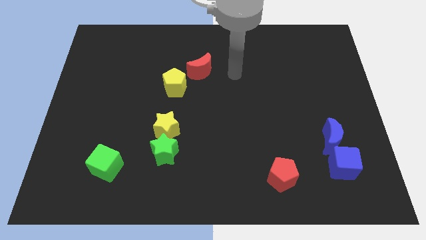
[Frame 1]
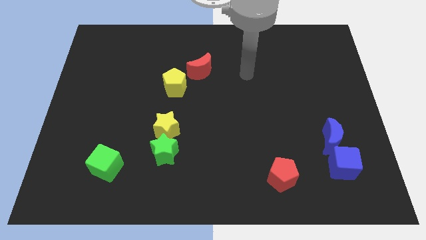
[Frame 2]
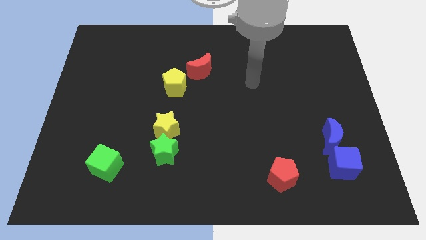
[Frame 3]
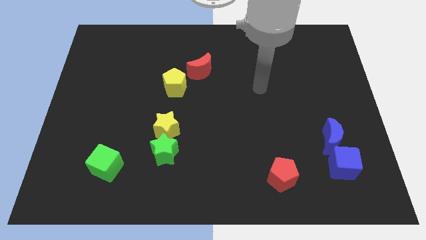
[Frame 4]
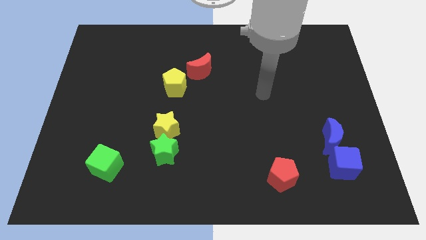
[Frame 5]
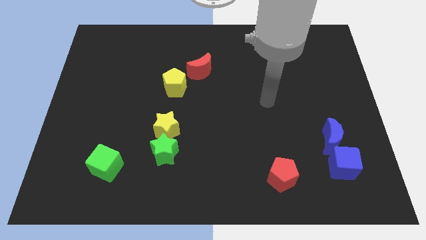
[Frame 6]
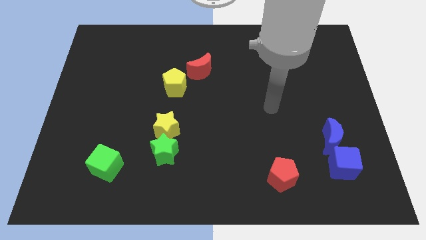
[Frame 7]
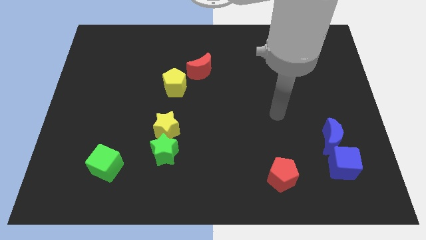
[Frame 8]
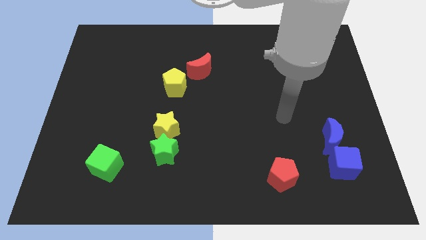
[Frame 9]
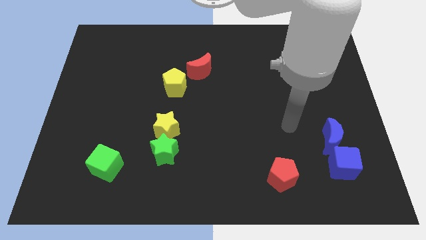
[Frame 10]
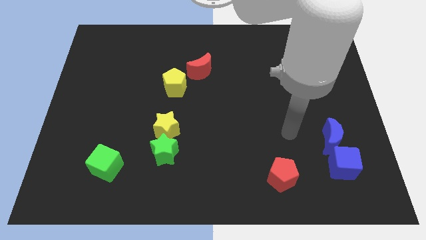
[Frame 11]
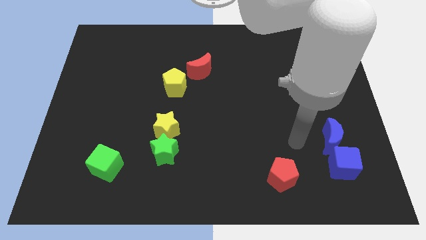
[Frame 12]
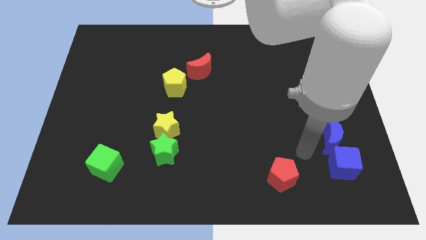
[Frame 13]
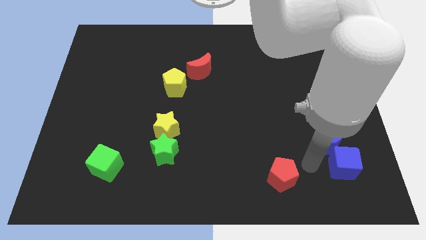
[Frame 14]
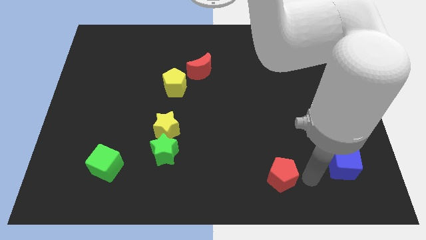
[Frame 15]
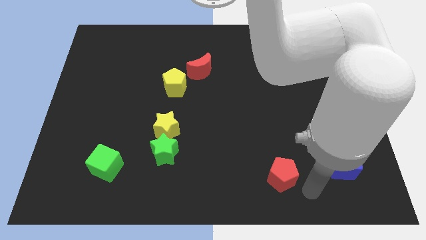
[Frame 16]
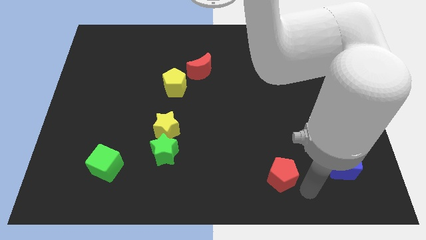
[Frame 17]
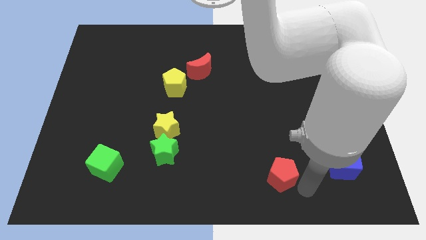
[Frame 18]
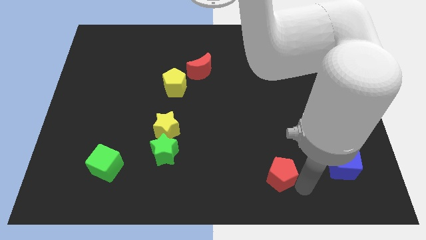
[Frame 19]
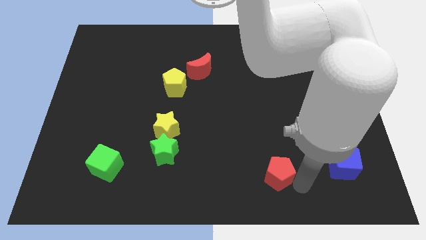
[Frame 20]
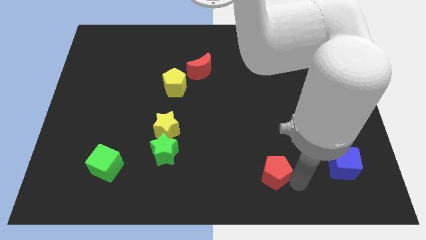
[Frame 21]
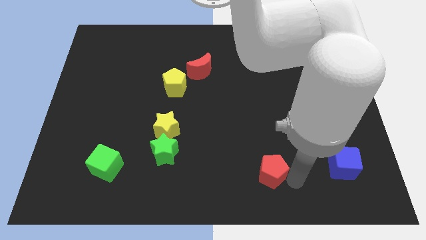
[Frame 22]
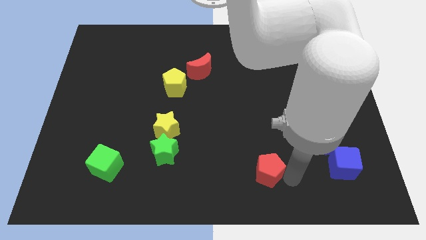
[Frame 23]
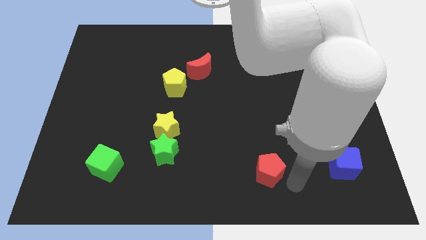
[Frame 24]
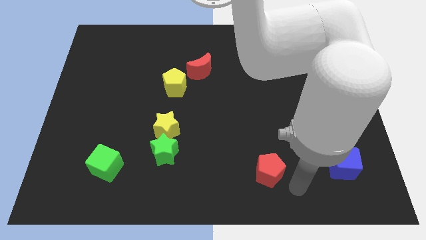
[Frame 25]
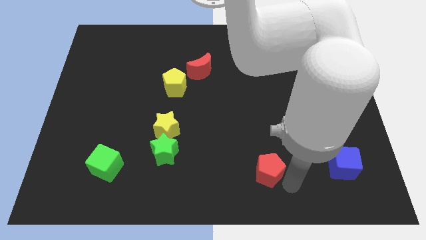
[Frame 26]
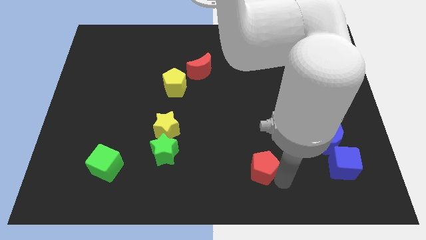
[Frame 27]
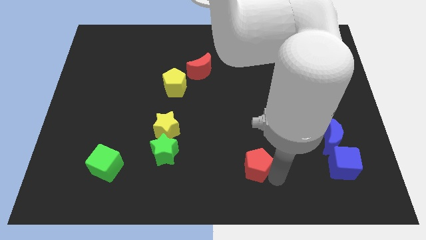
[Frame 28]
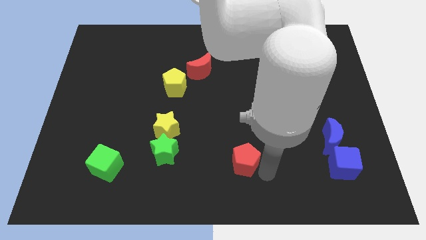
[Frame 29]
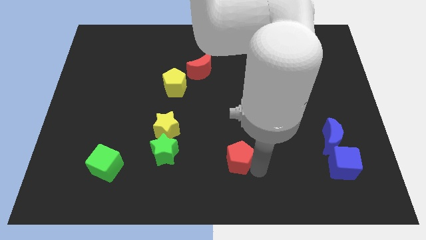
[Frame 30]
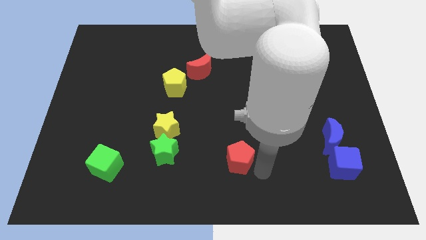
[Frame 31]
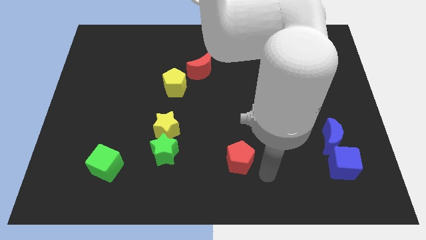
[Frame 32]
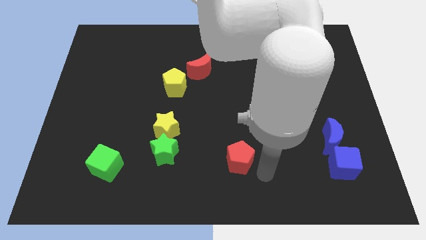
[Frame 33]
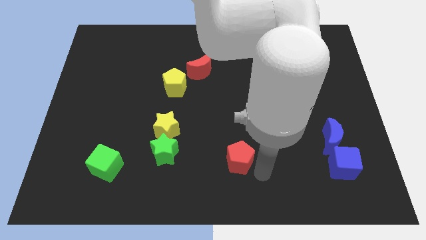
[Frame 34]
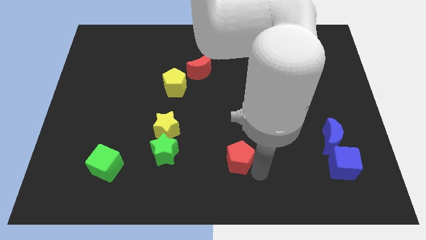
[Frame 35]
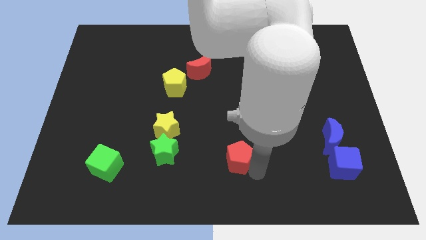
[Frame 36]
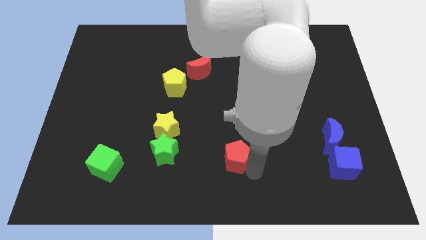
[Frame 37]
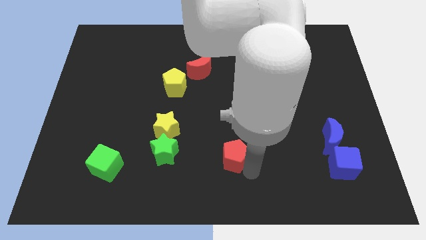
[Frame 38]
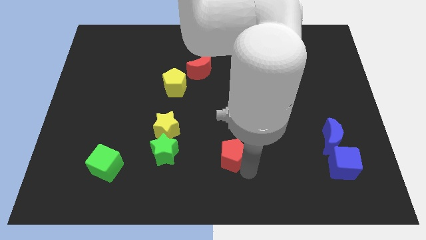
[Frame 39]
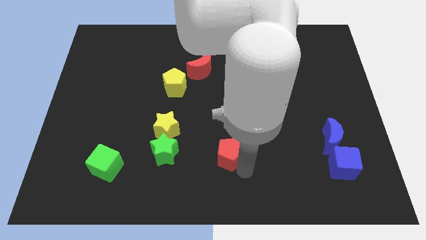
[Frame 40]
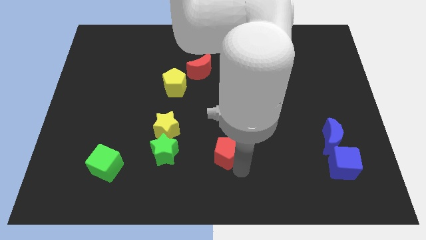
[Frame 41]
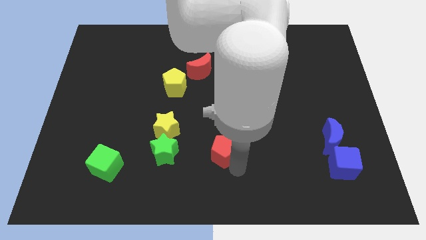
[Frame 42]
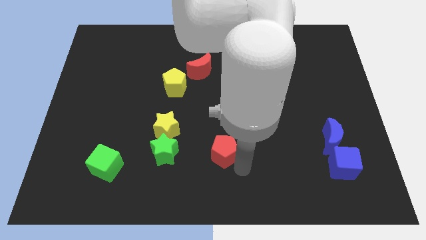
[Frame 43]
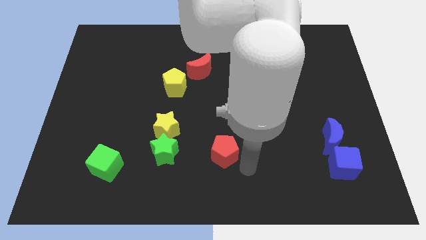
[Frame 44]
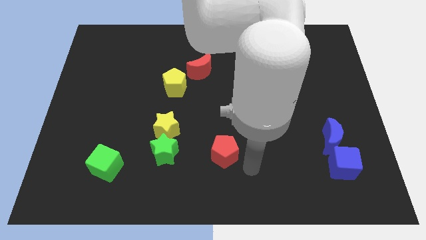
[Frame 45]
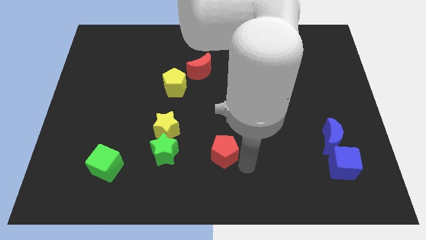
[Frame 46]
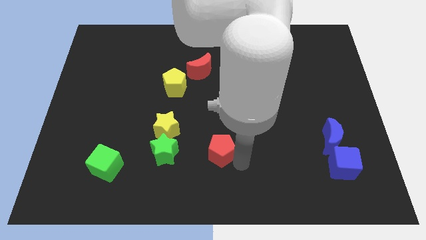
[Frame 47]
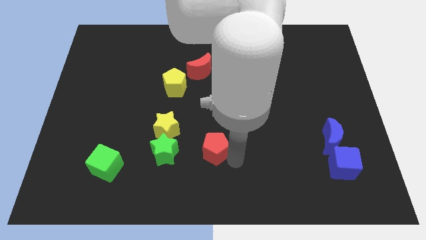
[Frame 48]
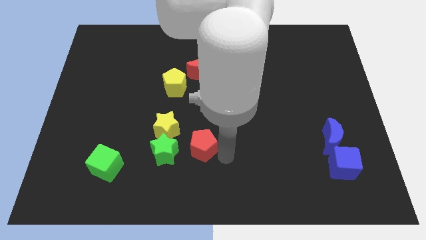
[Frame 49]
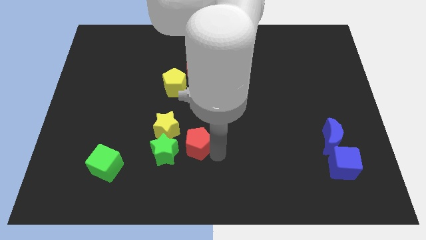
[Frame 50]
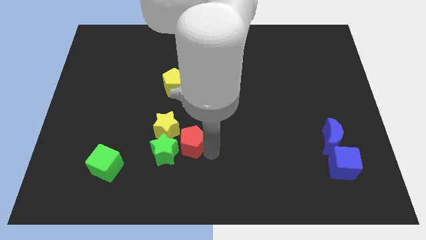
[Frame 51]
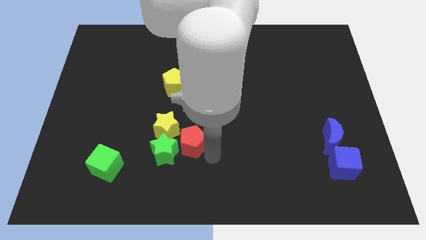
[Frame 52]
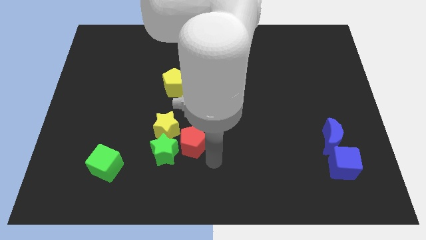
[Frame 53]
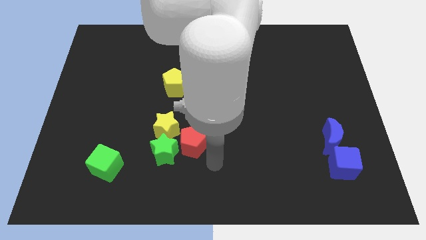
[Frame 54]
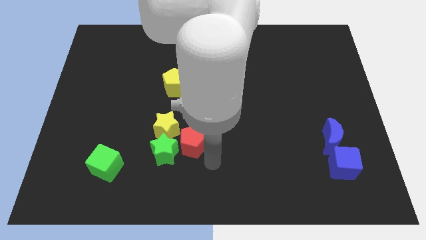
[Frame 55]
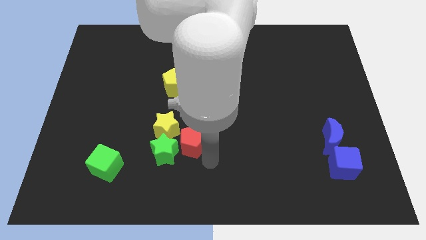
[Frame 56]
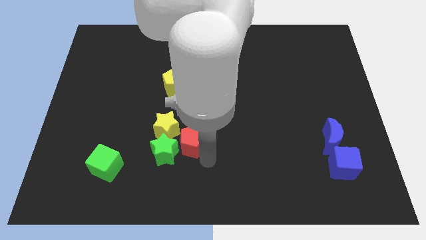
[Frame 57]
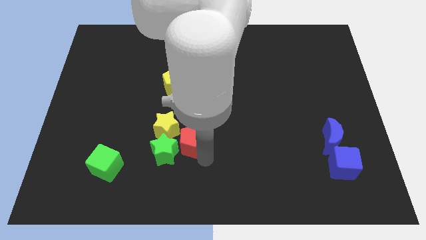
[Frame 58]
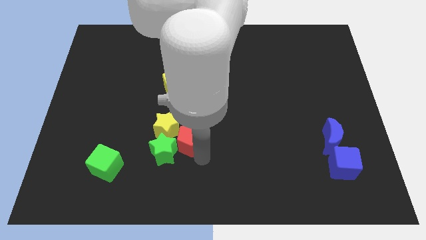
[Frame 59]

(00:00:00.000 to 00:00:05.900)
move the red pentagon next to the yellow star

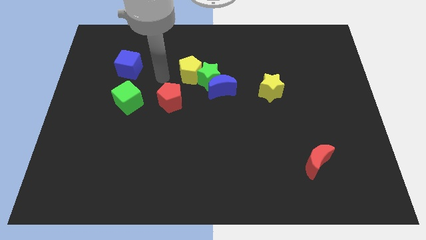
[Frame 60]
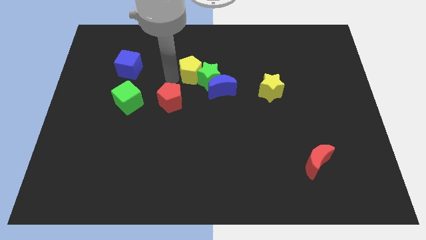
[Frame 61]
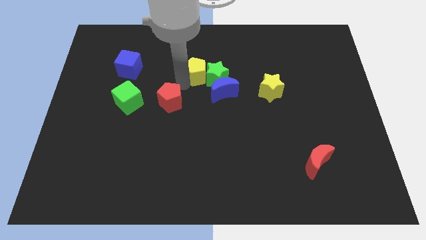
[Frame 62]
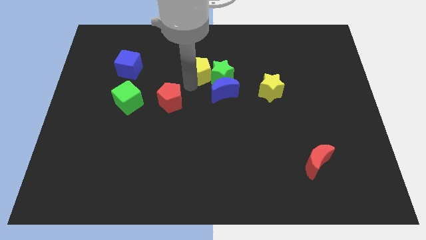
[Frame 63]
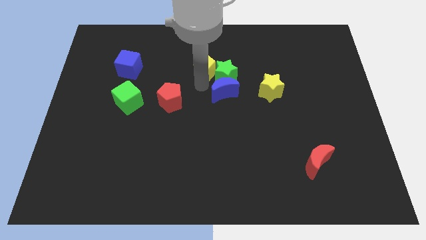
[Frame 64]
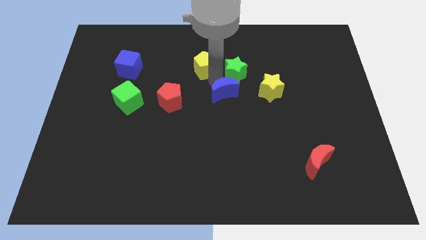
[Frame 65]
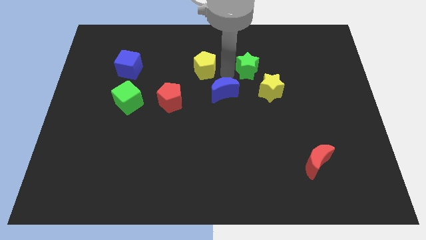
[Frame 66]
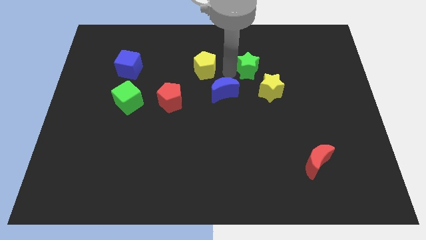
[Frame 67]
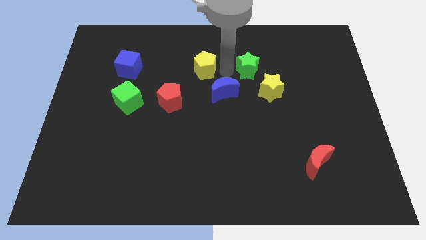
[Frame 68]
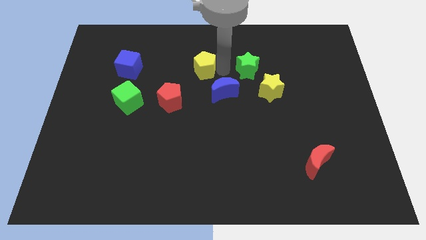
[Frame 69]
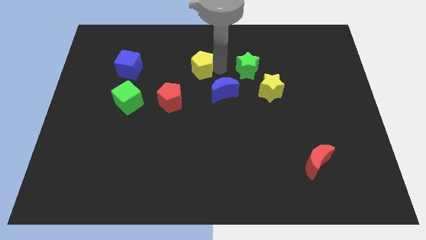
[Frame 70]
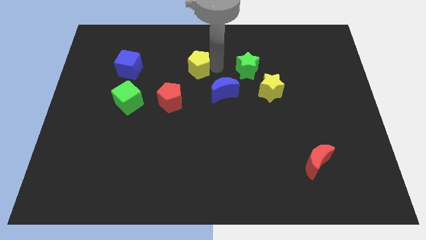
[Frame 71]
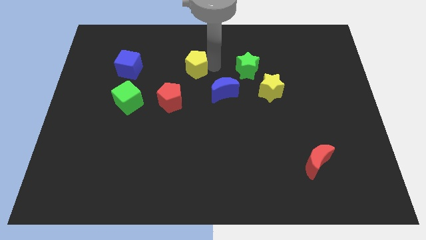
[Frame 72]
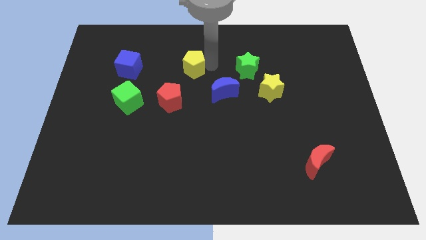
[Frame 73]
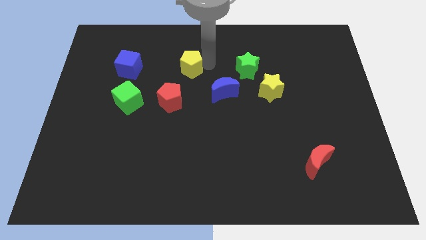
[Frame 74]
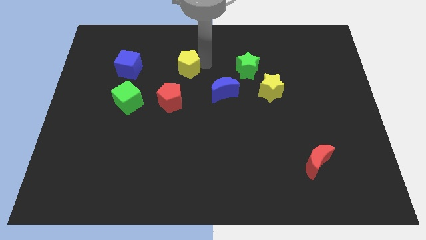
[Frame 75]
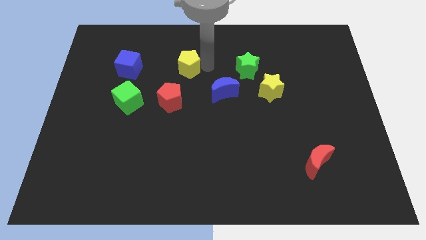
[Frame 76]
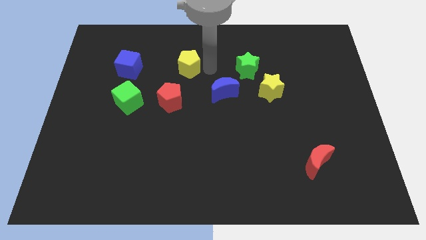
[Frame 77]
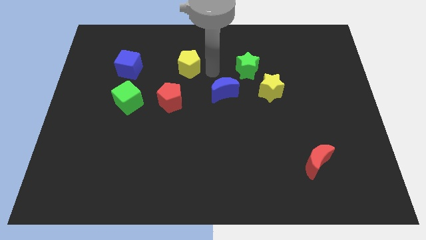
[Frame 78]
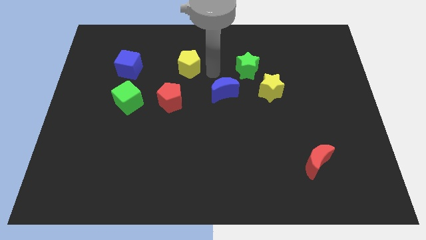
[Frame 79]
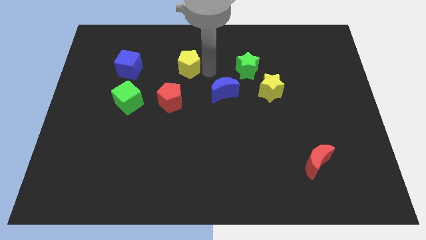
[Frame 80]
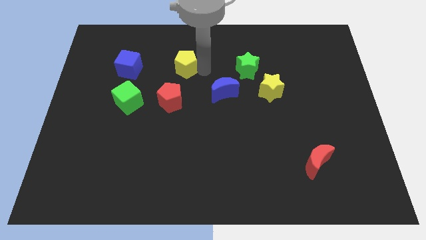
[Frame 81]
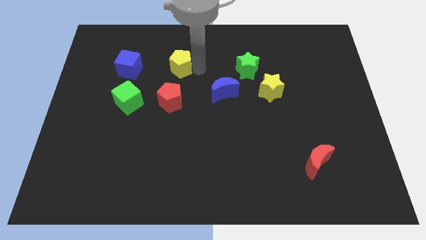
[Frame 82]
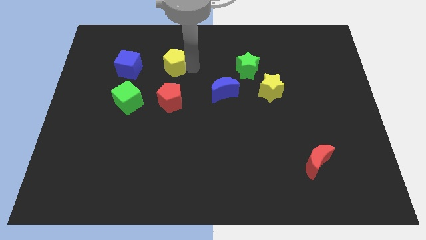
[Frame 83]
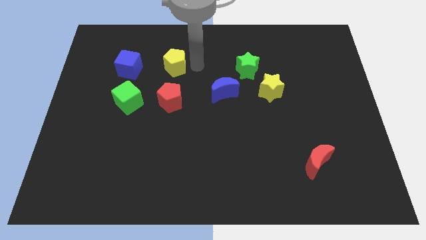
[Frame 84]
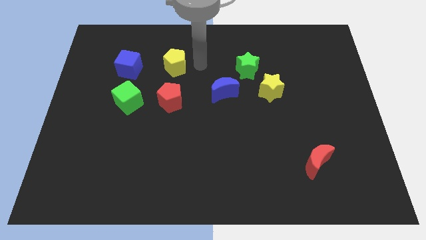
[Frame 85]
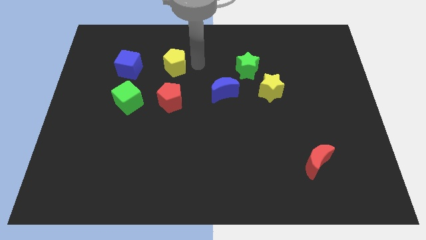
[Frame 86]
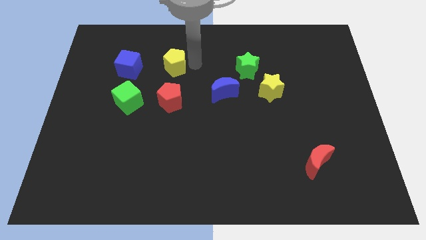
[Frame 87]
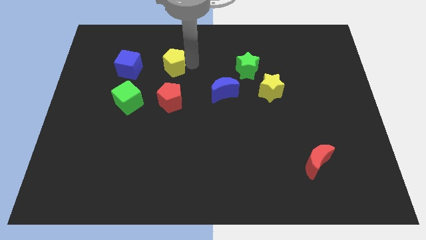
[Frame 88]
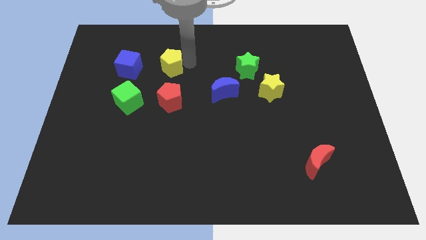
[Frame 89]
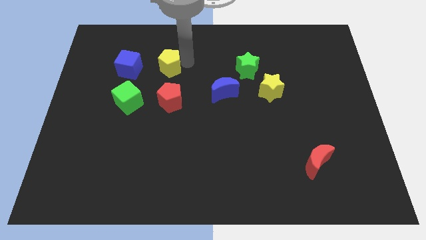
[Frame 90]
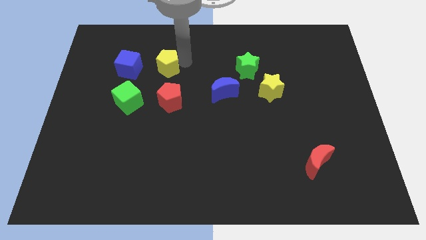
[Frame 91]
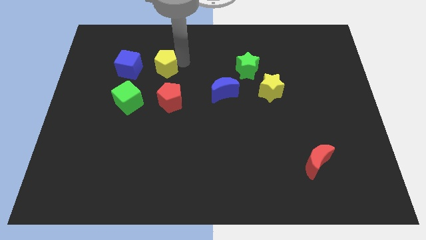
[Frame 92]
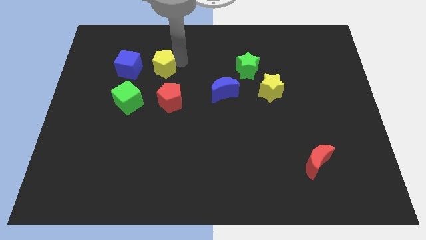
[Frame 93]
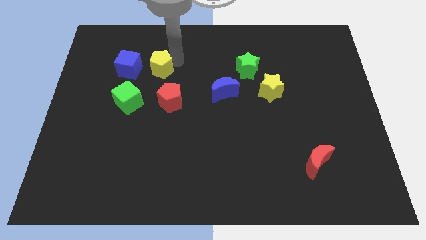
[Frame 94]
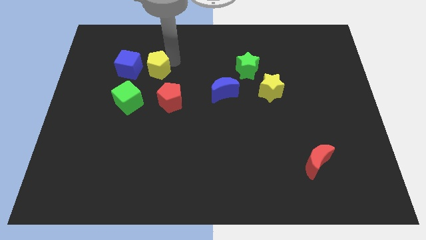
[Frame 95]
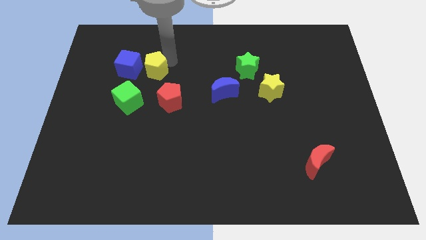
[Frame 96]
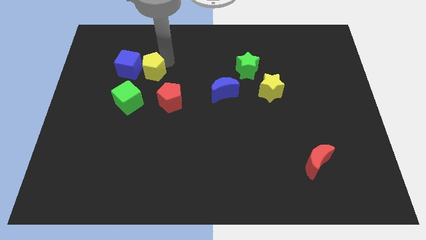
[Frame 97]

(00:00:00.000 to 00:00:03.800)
push the yellow pentagon close to the blue cube
